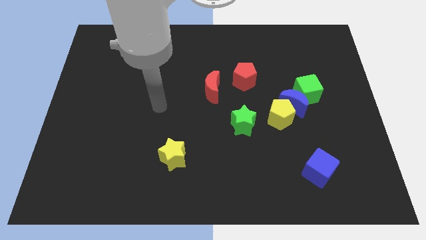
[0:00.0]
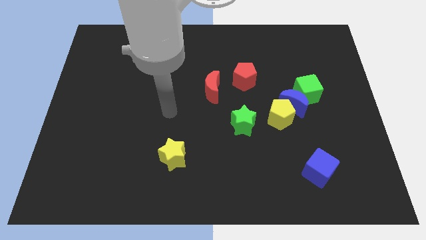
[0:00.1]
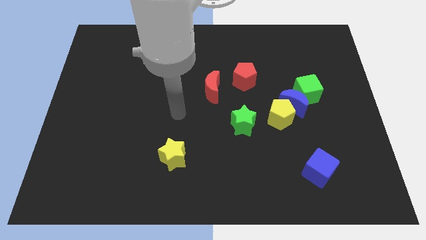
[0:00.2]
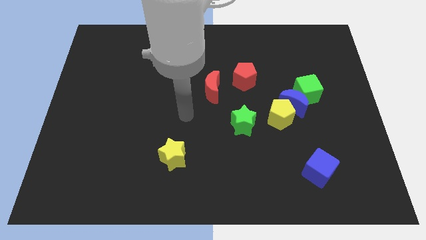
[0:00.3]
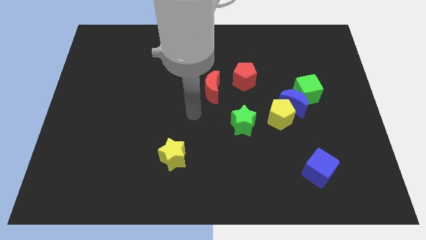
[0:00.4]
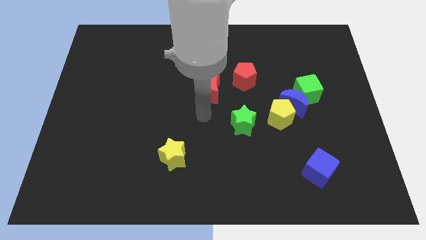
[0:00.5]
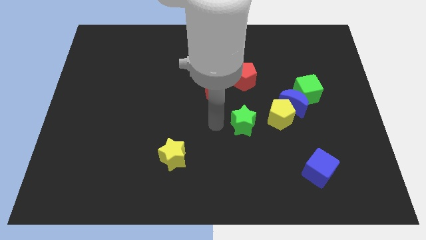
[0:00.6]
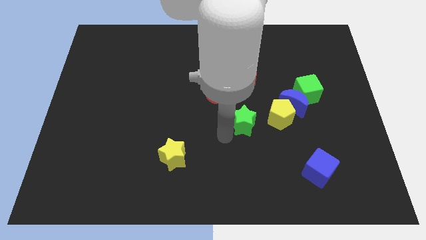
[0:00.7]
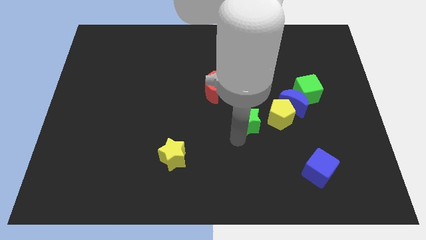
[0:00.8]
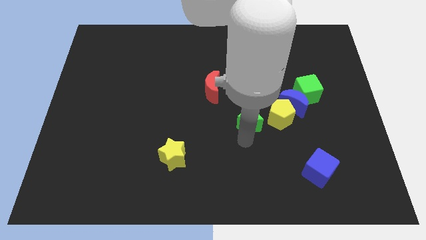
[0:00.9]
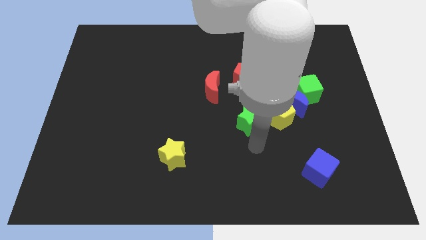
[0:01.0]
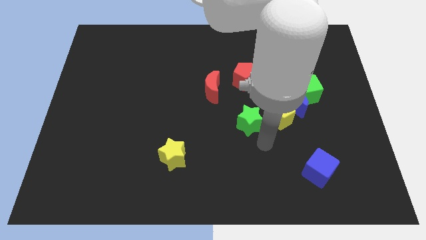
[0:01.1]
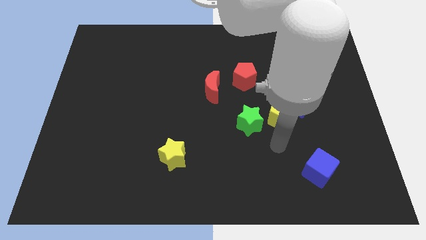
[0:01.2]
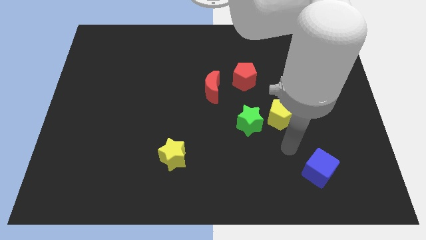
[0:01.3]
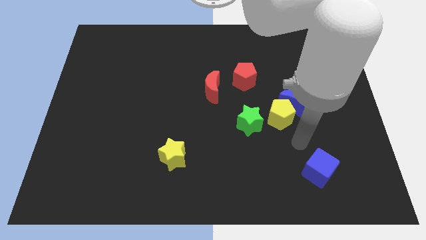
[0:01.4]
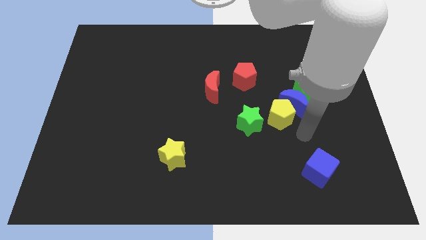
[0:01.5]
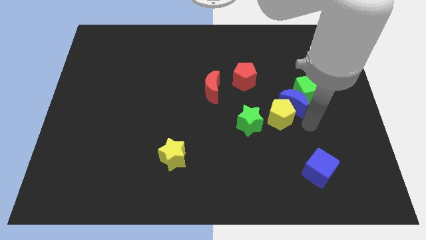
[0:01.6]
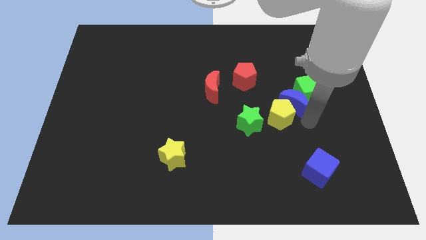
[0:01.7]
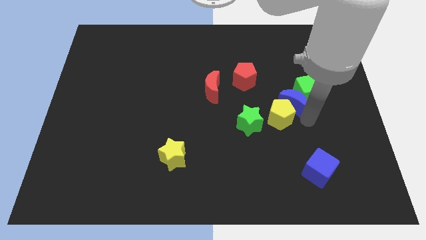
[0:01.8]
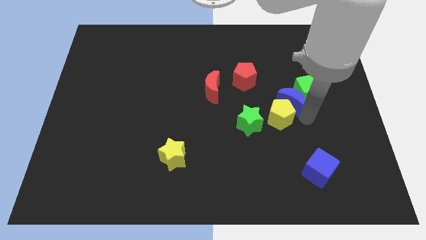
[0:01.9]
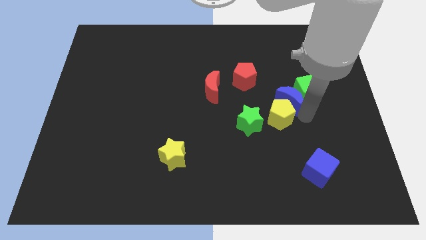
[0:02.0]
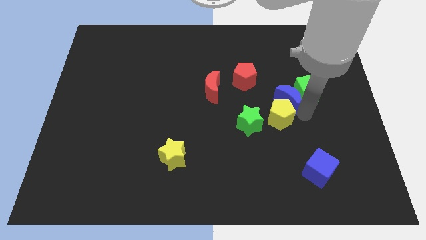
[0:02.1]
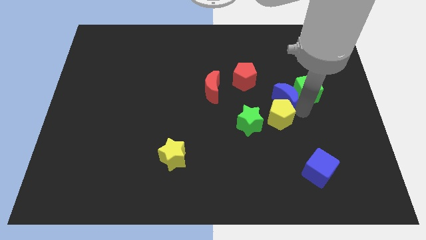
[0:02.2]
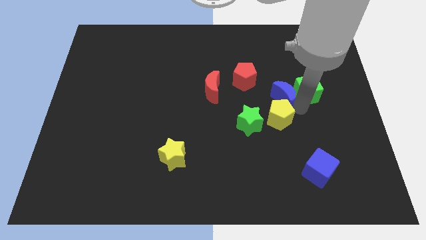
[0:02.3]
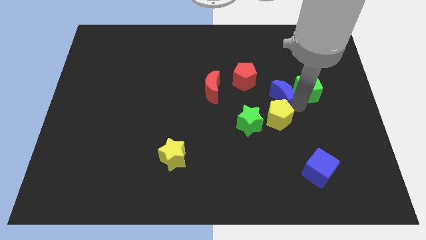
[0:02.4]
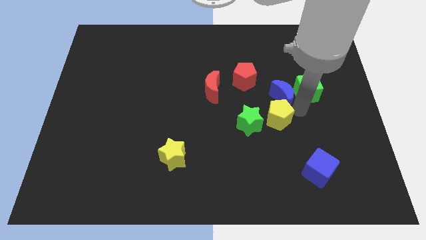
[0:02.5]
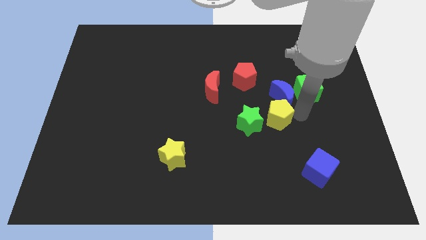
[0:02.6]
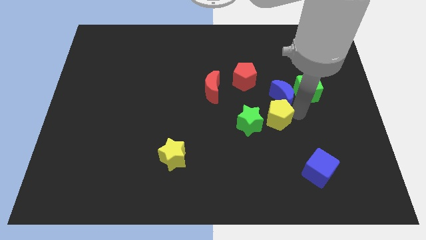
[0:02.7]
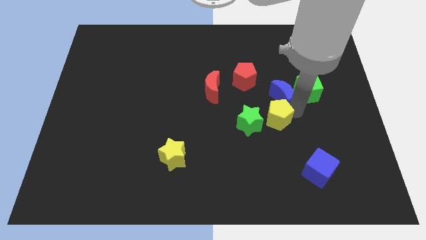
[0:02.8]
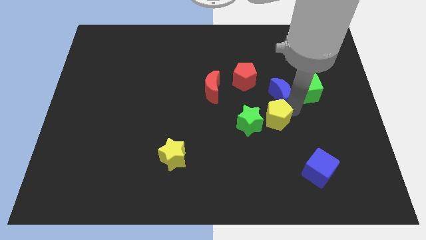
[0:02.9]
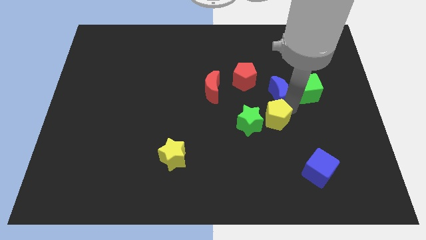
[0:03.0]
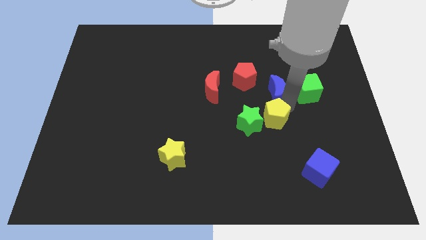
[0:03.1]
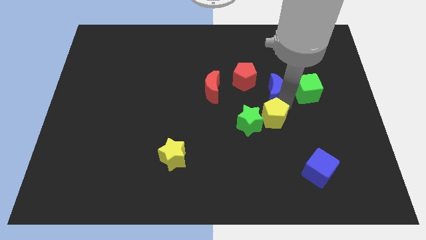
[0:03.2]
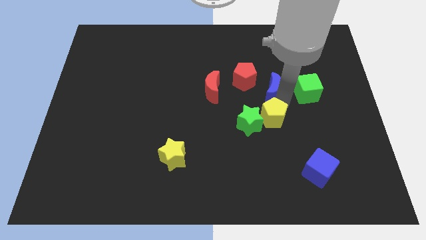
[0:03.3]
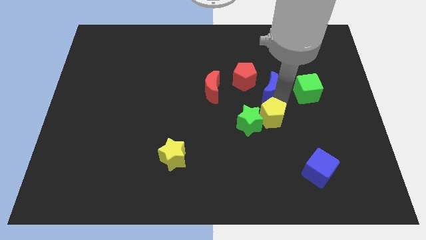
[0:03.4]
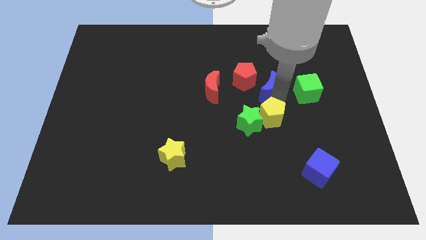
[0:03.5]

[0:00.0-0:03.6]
slightly slide the blue moon upwards and left diagonally

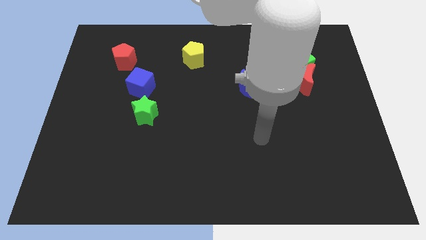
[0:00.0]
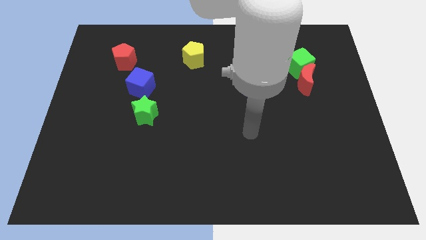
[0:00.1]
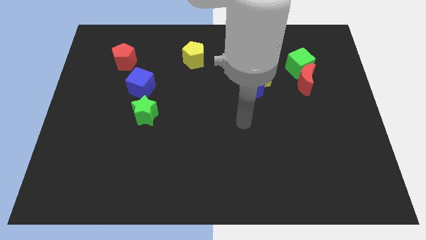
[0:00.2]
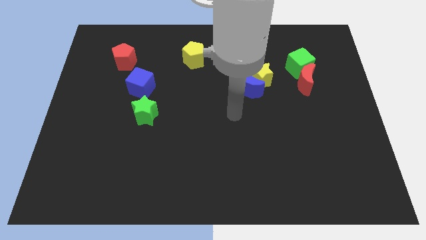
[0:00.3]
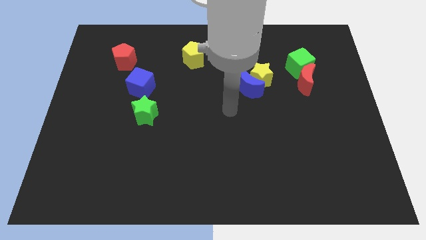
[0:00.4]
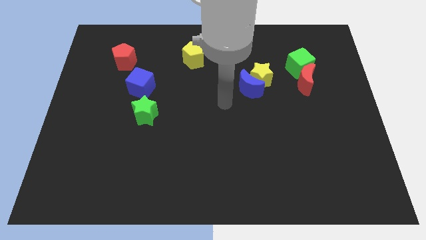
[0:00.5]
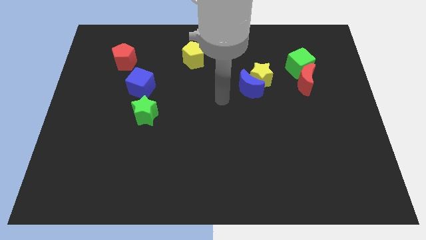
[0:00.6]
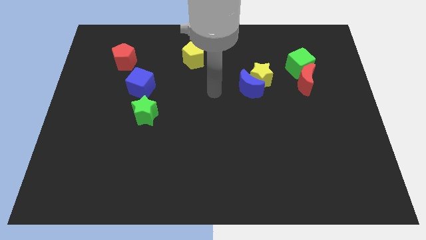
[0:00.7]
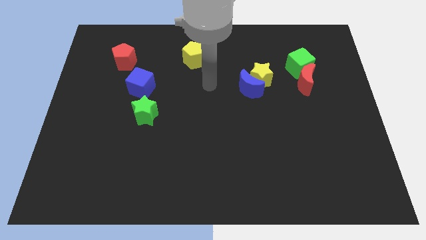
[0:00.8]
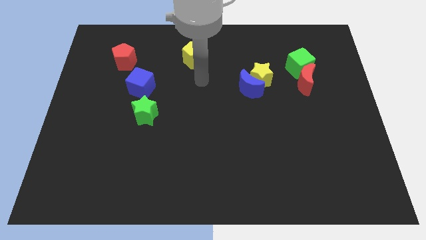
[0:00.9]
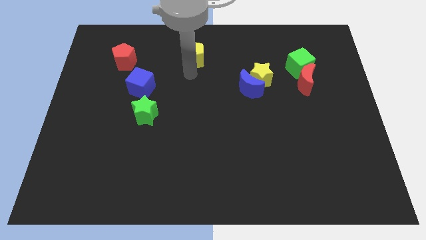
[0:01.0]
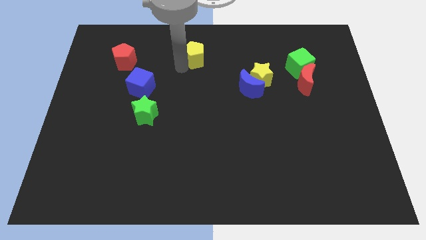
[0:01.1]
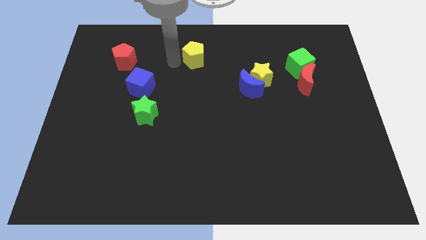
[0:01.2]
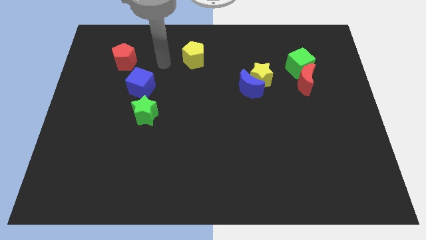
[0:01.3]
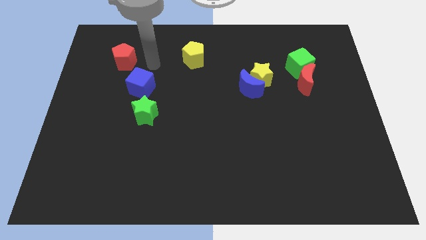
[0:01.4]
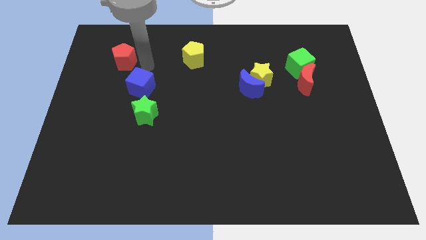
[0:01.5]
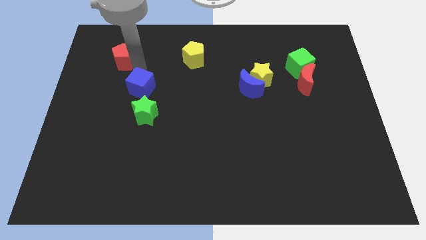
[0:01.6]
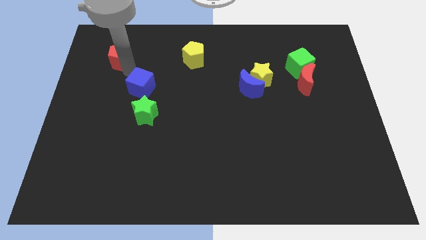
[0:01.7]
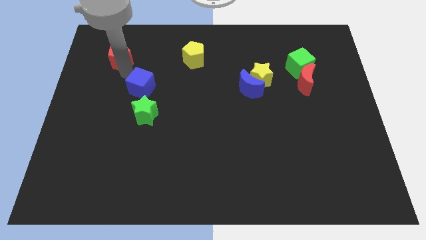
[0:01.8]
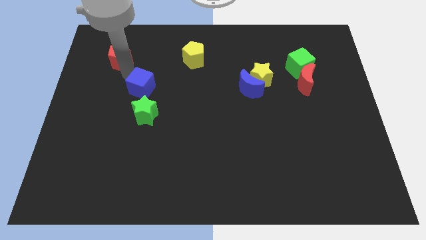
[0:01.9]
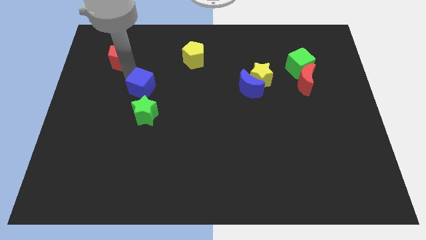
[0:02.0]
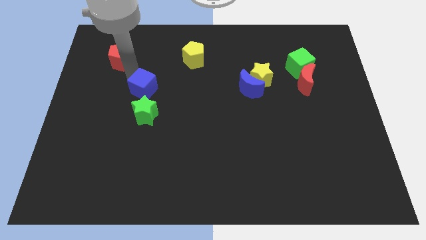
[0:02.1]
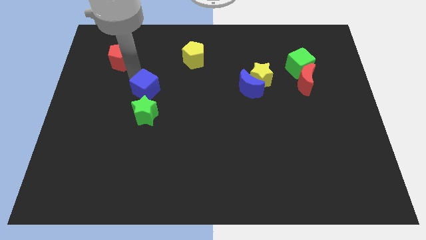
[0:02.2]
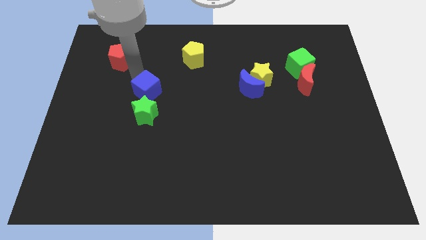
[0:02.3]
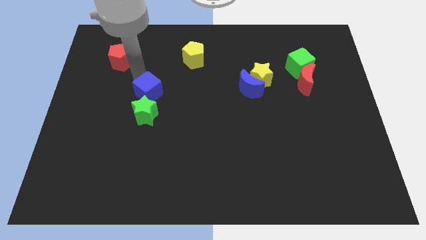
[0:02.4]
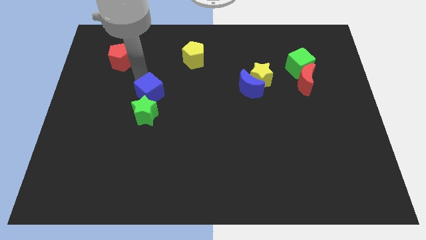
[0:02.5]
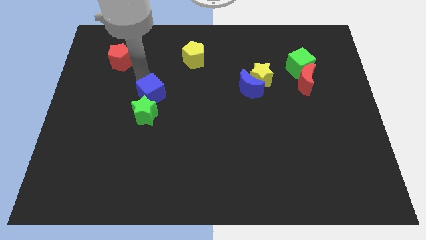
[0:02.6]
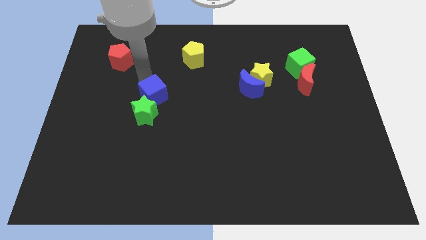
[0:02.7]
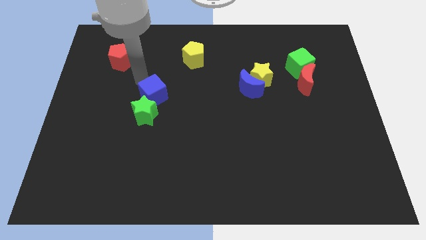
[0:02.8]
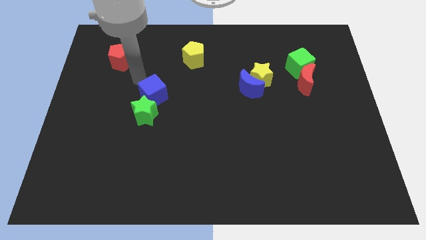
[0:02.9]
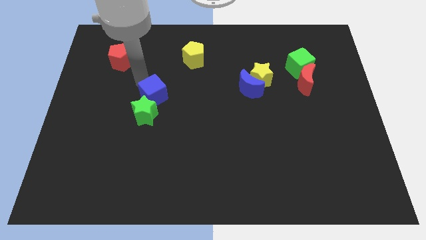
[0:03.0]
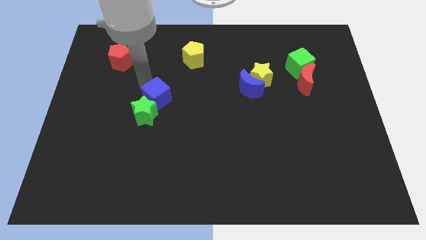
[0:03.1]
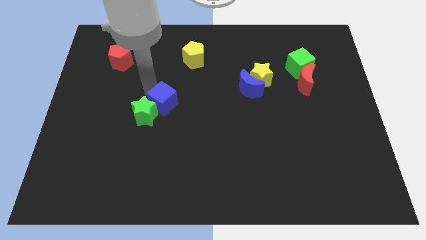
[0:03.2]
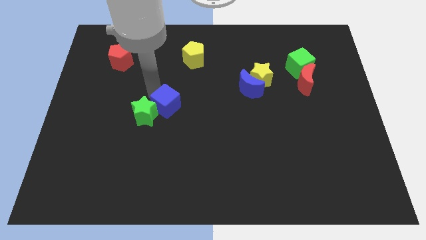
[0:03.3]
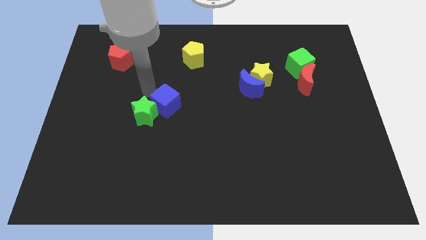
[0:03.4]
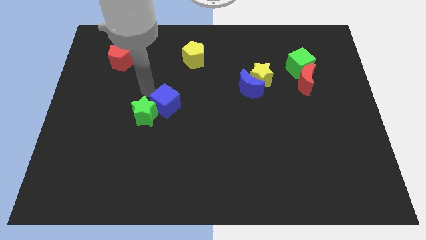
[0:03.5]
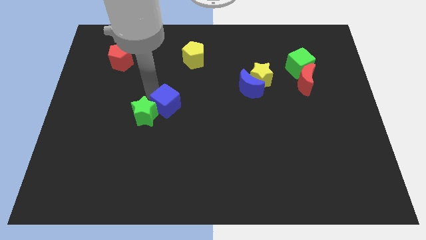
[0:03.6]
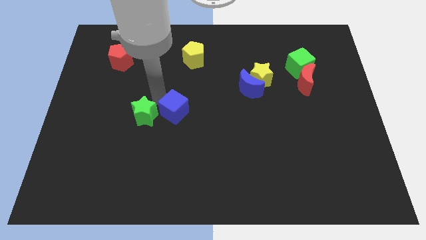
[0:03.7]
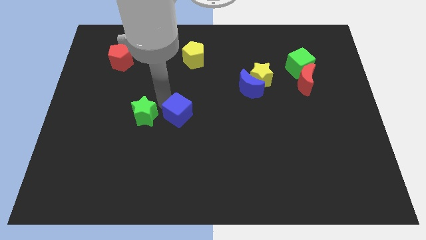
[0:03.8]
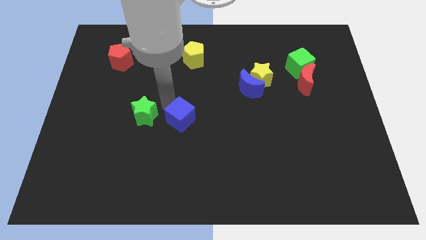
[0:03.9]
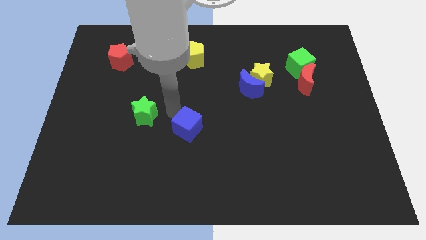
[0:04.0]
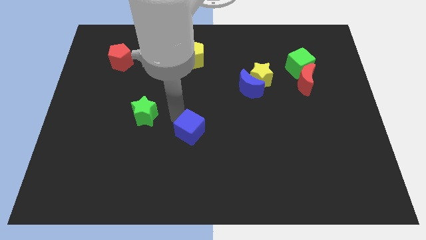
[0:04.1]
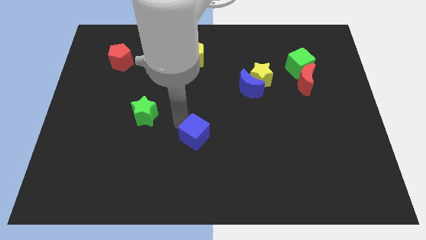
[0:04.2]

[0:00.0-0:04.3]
move the blue cube down and right diagonally

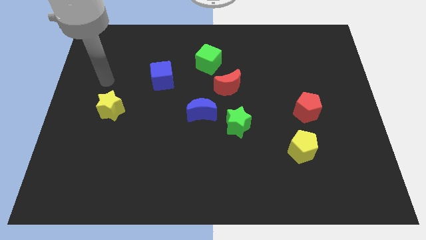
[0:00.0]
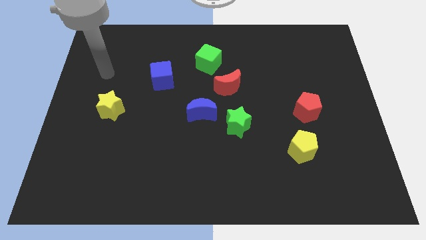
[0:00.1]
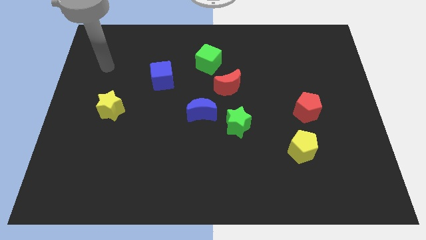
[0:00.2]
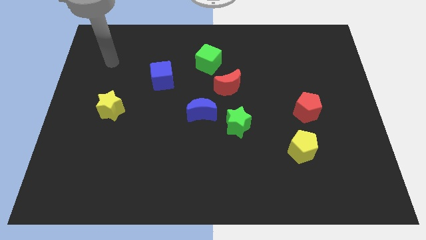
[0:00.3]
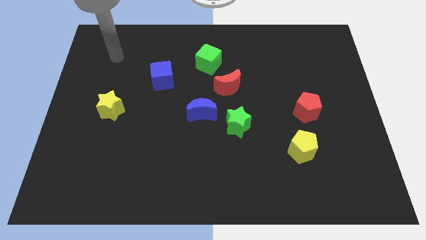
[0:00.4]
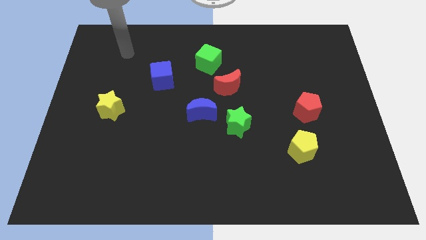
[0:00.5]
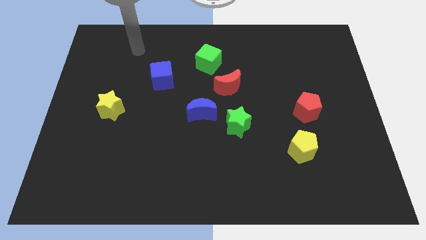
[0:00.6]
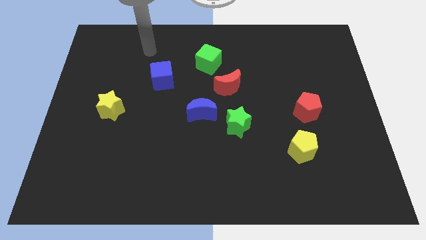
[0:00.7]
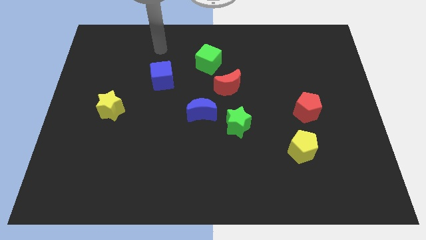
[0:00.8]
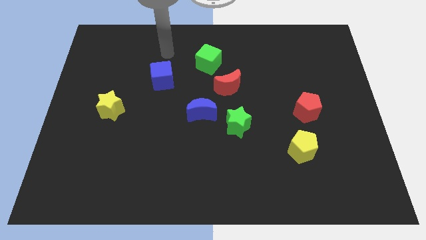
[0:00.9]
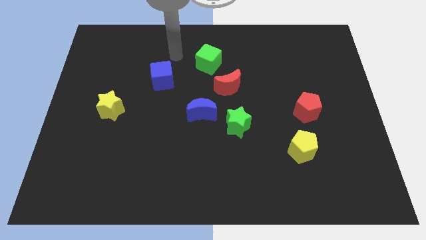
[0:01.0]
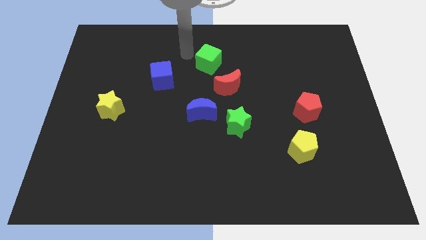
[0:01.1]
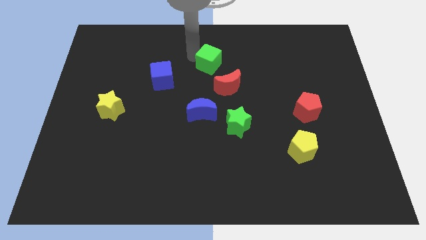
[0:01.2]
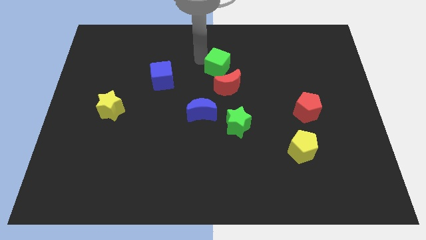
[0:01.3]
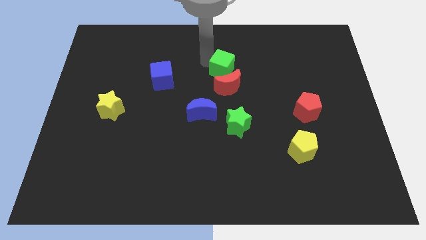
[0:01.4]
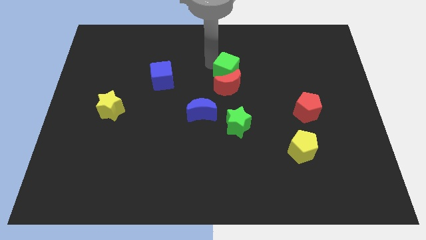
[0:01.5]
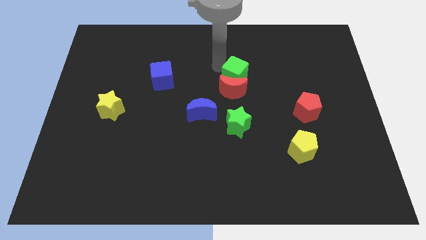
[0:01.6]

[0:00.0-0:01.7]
slide the green cube down and right diagonally slightly
